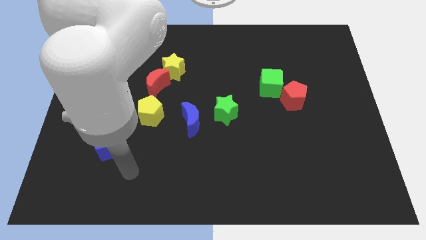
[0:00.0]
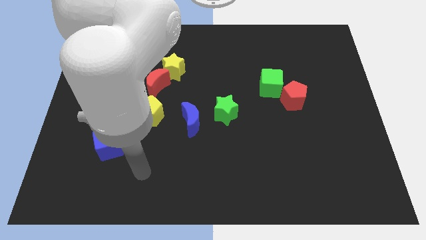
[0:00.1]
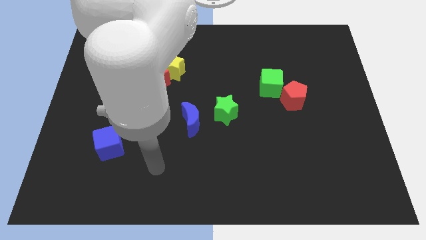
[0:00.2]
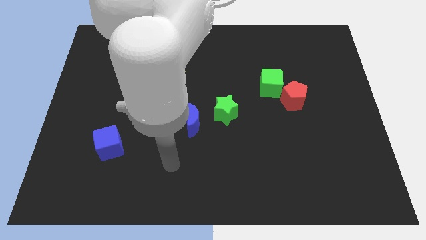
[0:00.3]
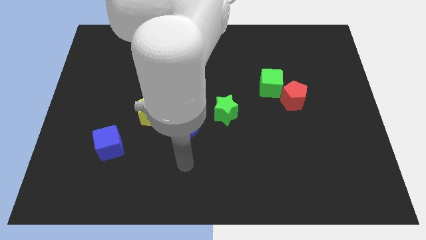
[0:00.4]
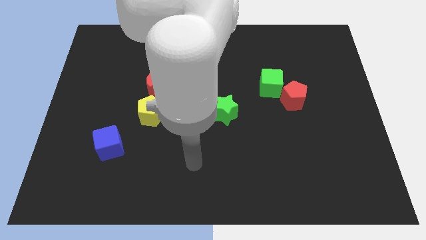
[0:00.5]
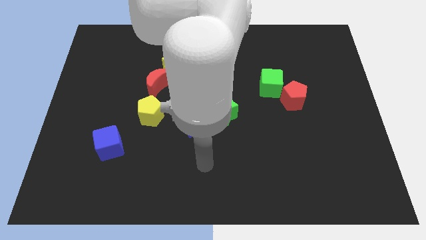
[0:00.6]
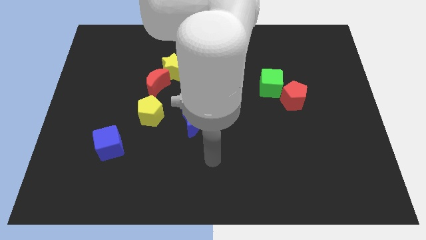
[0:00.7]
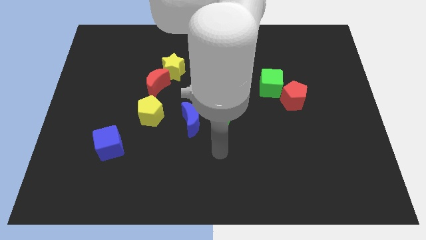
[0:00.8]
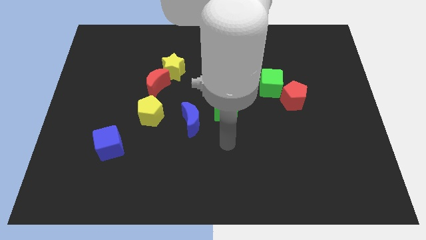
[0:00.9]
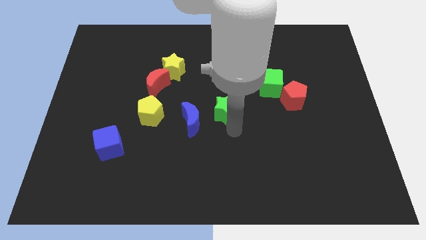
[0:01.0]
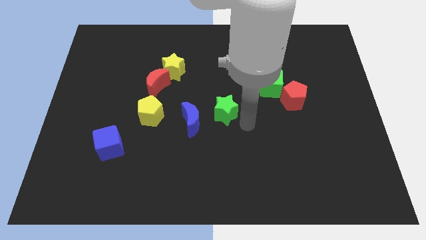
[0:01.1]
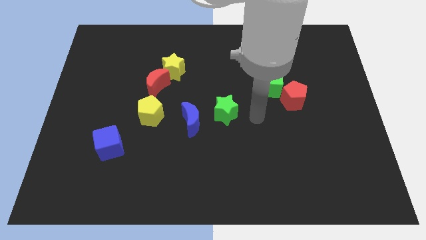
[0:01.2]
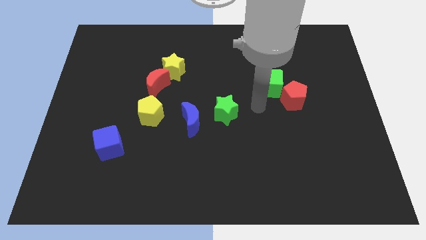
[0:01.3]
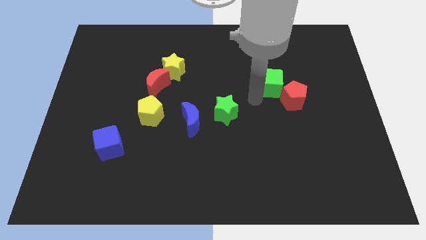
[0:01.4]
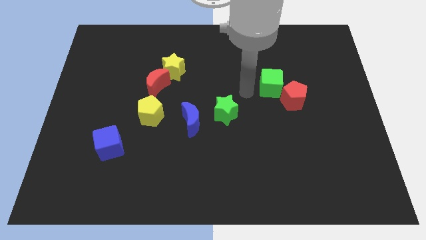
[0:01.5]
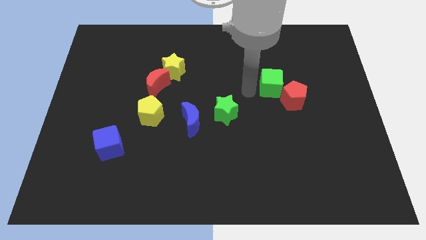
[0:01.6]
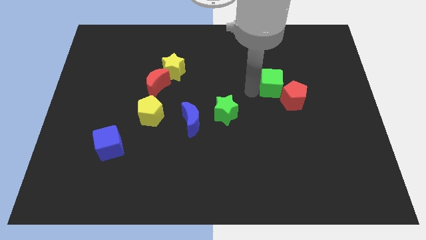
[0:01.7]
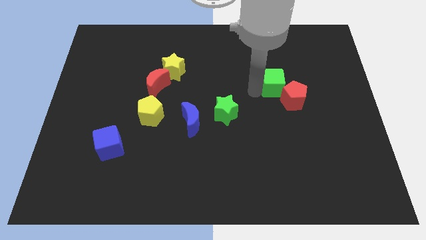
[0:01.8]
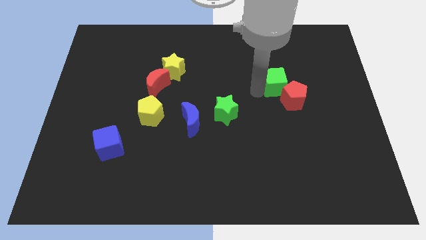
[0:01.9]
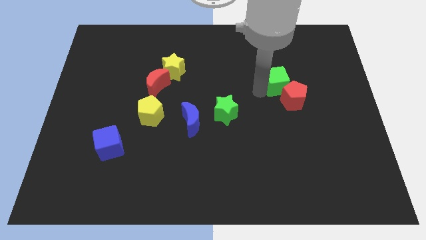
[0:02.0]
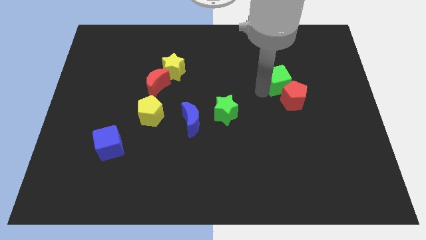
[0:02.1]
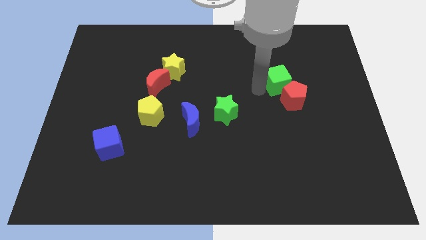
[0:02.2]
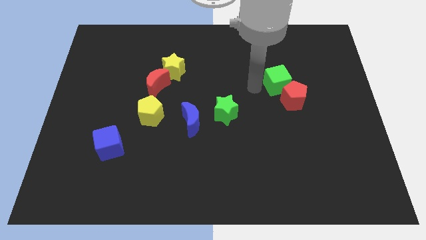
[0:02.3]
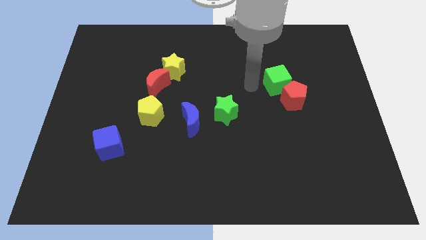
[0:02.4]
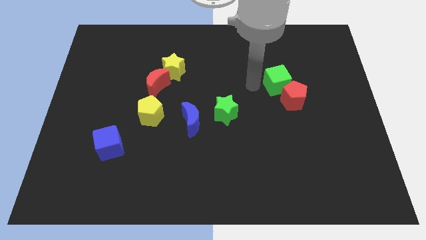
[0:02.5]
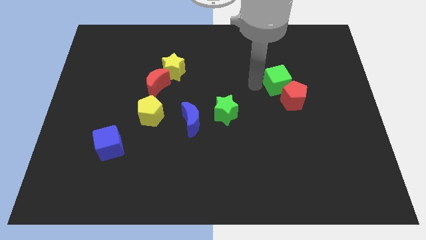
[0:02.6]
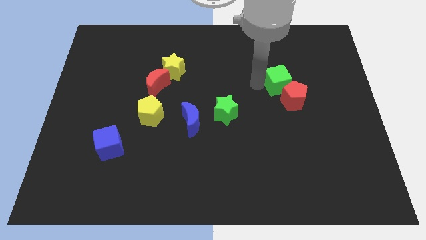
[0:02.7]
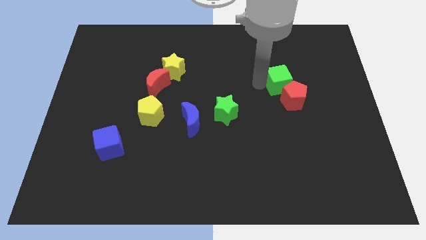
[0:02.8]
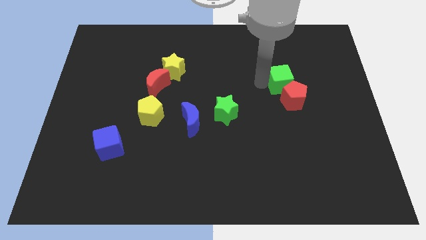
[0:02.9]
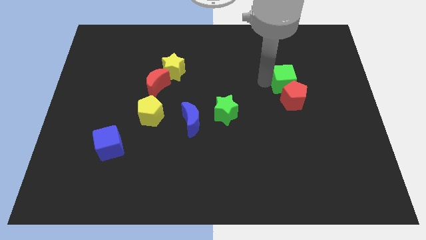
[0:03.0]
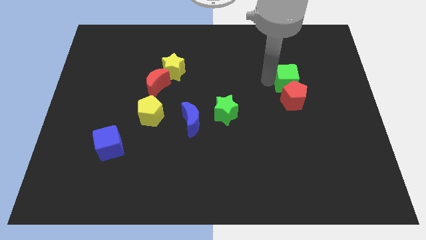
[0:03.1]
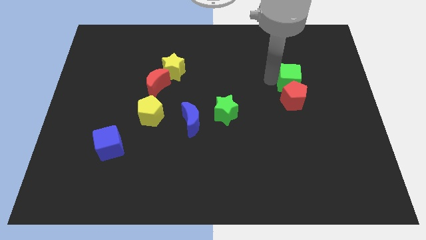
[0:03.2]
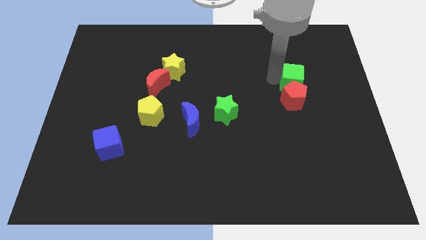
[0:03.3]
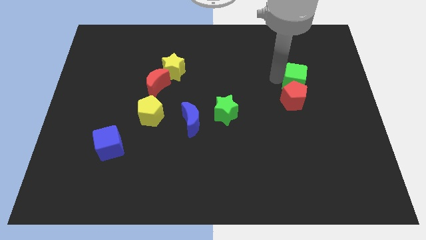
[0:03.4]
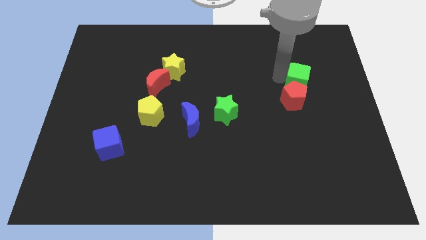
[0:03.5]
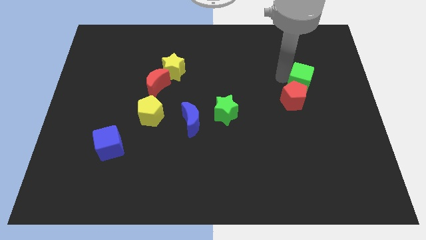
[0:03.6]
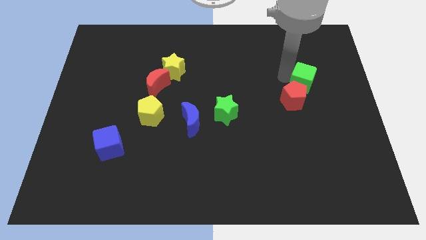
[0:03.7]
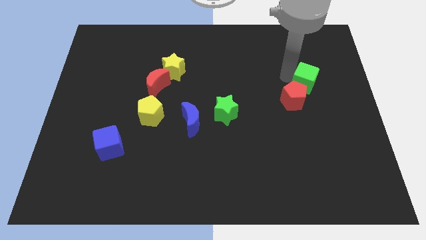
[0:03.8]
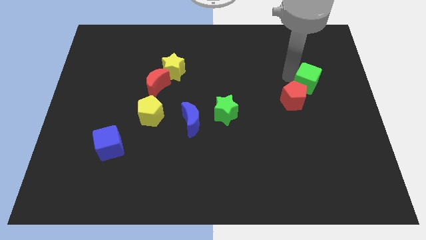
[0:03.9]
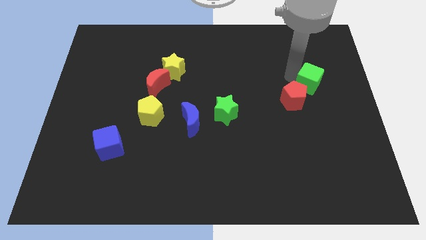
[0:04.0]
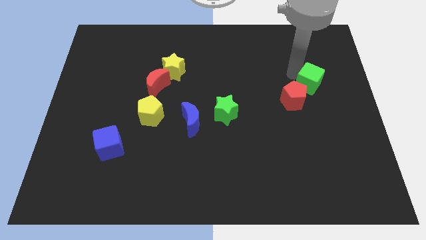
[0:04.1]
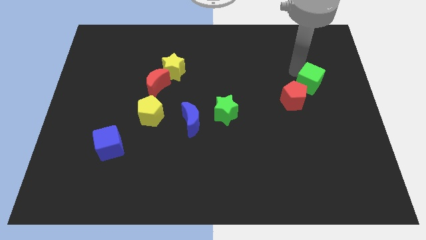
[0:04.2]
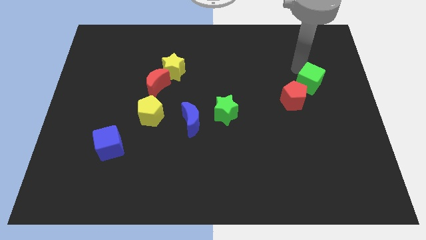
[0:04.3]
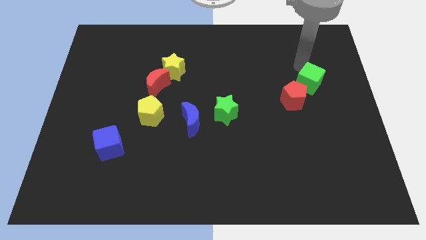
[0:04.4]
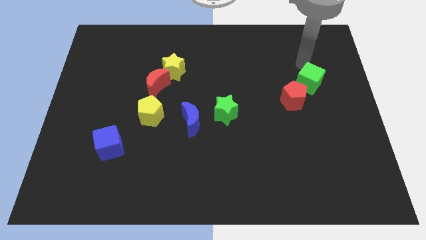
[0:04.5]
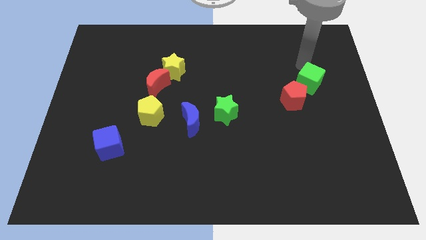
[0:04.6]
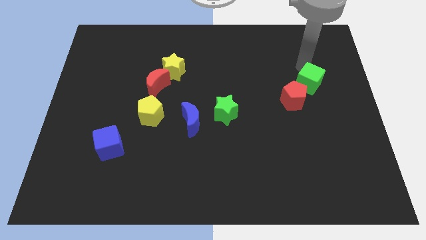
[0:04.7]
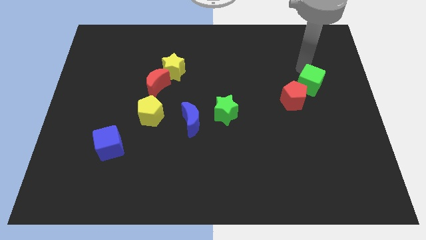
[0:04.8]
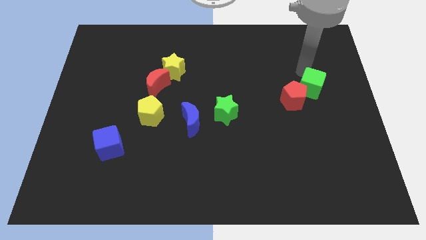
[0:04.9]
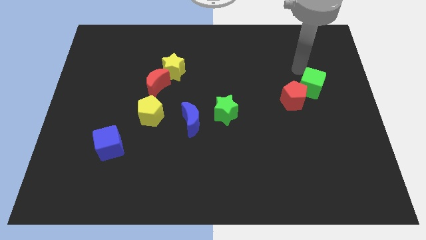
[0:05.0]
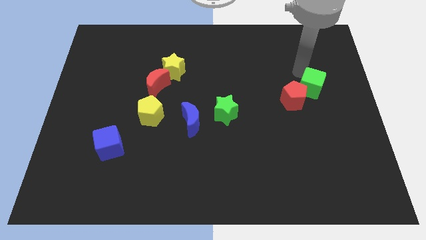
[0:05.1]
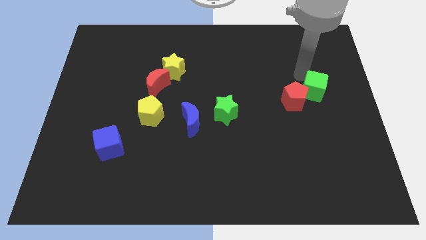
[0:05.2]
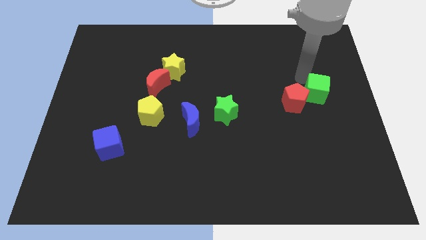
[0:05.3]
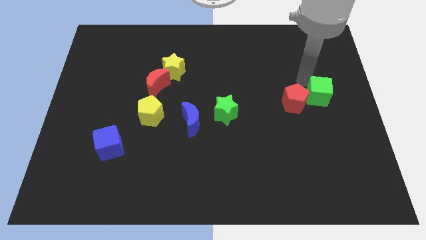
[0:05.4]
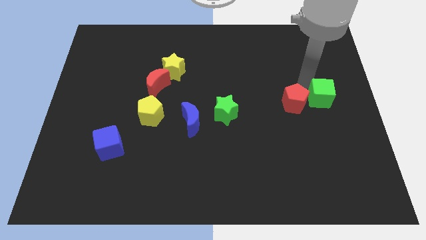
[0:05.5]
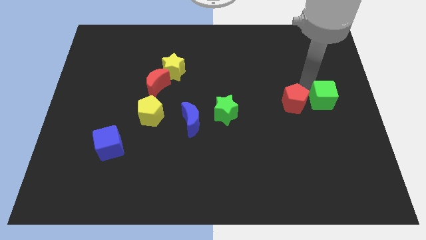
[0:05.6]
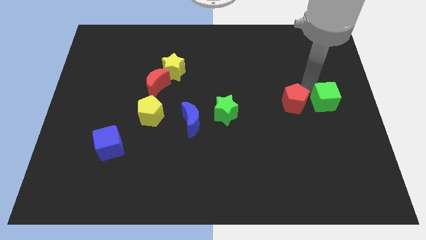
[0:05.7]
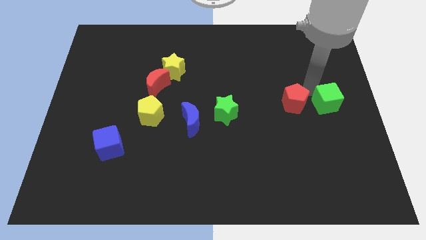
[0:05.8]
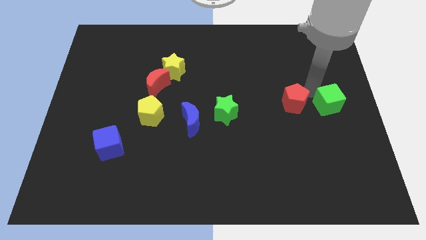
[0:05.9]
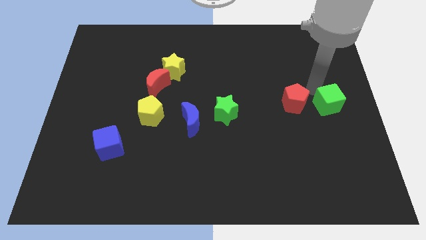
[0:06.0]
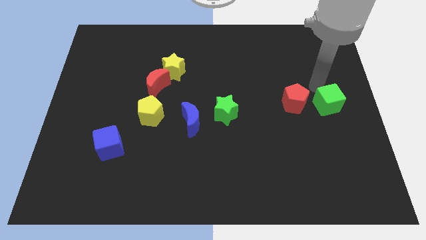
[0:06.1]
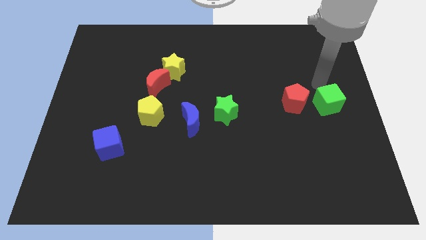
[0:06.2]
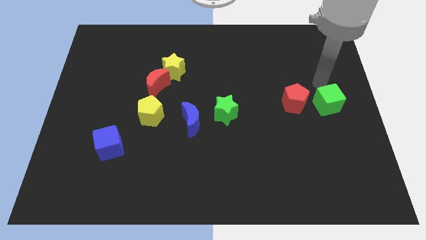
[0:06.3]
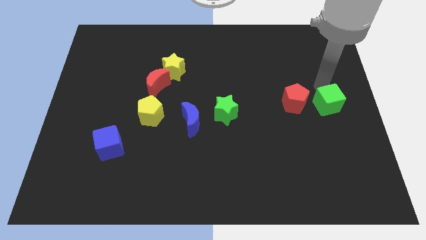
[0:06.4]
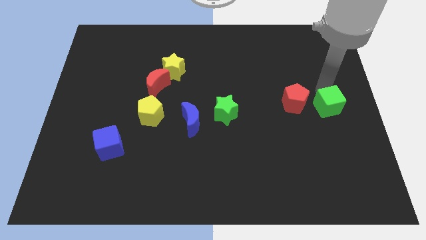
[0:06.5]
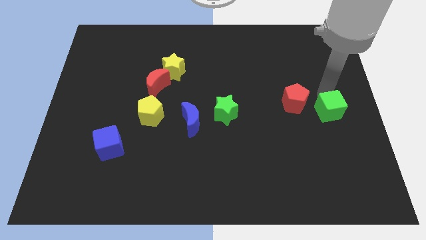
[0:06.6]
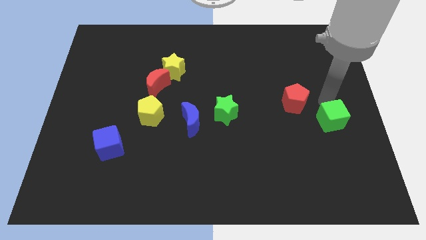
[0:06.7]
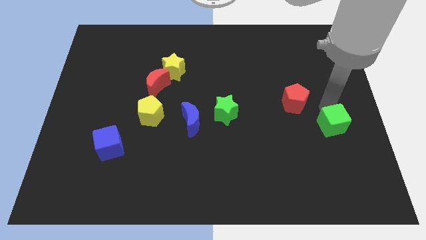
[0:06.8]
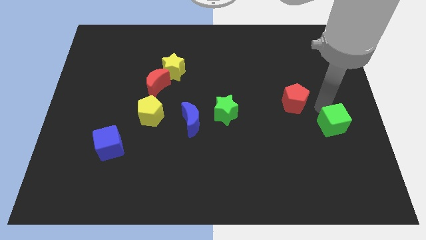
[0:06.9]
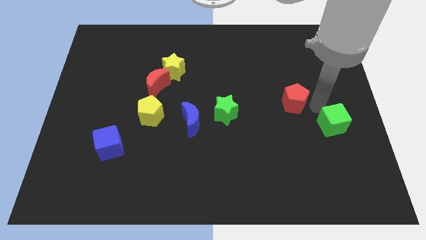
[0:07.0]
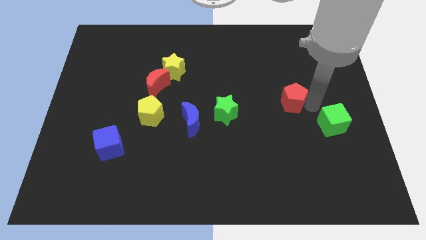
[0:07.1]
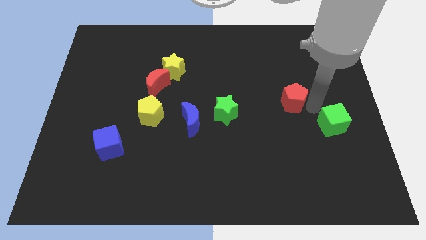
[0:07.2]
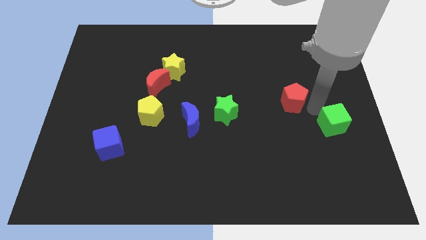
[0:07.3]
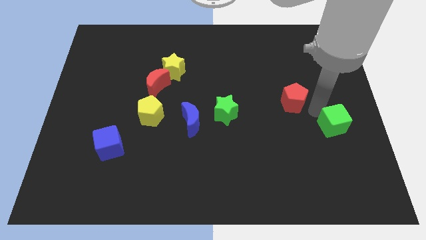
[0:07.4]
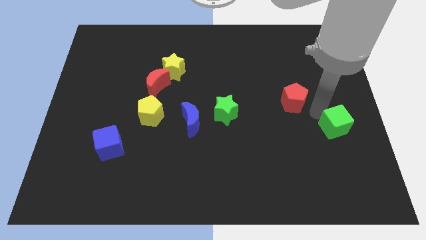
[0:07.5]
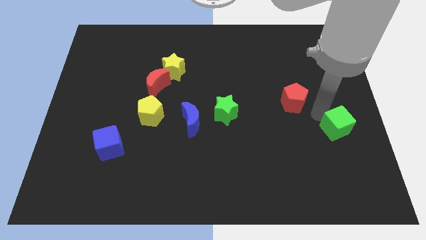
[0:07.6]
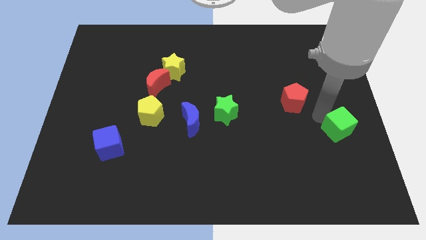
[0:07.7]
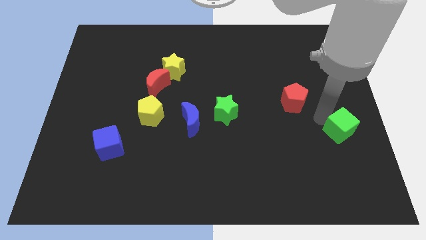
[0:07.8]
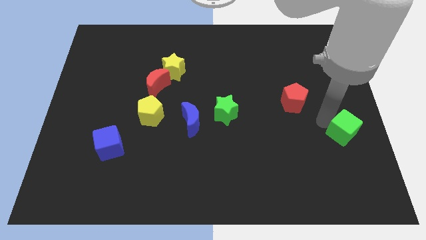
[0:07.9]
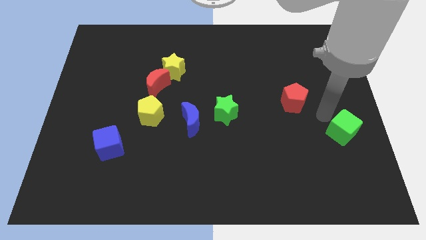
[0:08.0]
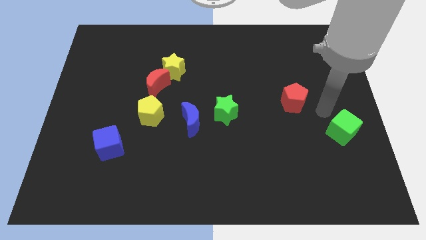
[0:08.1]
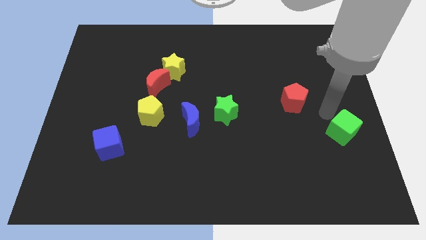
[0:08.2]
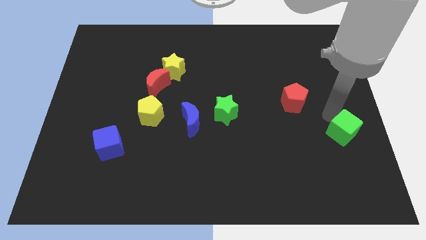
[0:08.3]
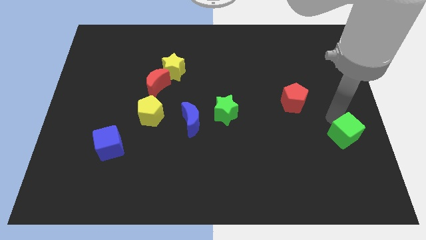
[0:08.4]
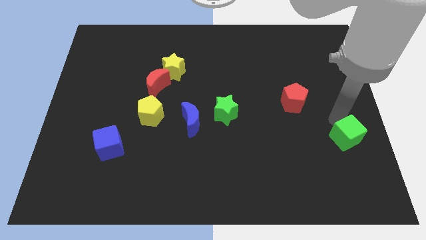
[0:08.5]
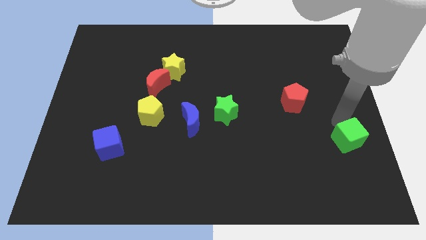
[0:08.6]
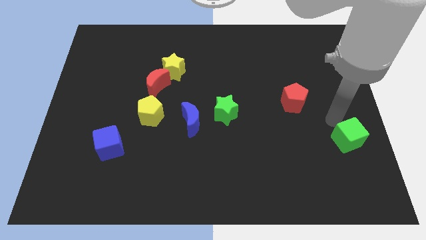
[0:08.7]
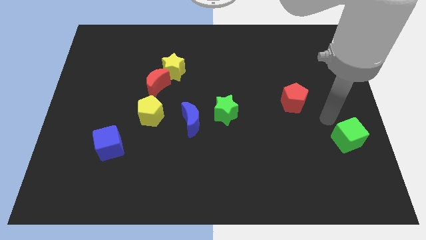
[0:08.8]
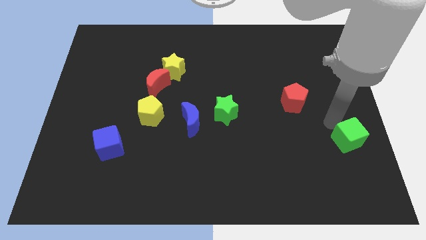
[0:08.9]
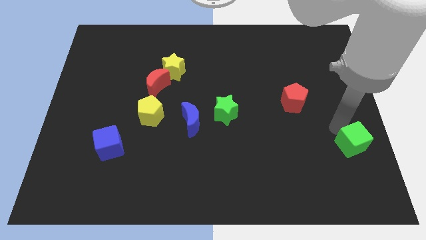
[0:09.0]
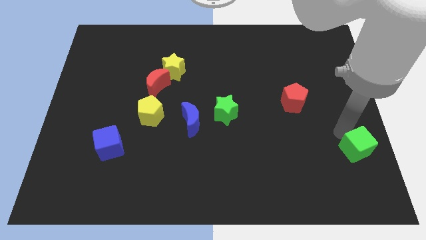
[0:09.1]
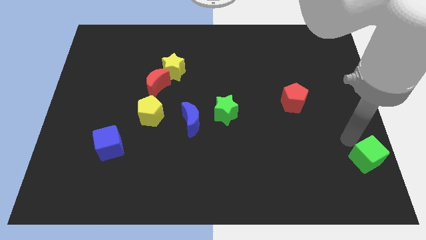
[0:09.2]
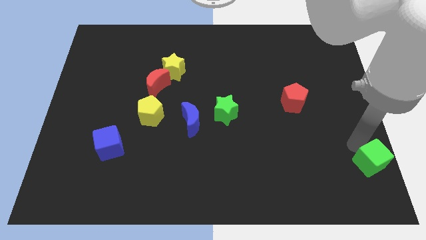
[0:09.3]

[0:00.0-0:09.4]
move the green cube to the bottom right of the board
